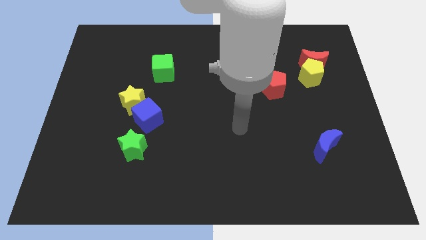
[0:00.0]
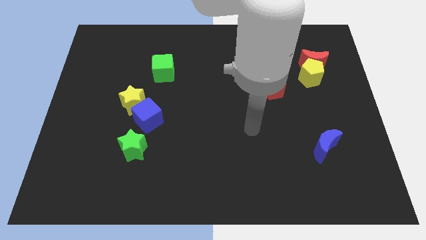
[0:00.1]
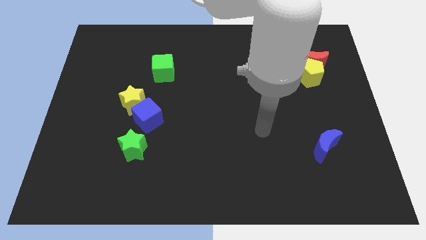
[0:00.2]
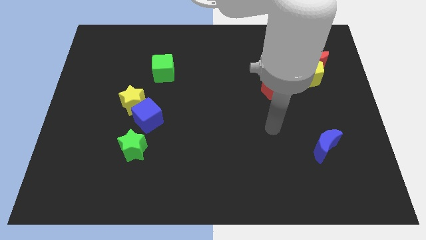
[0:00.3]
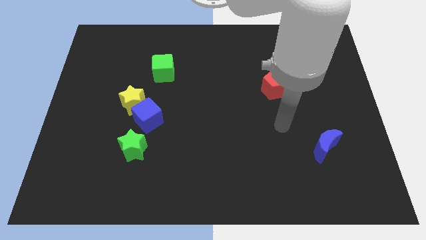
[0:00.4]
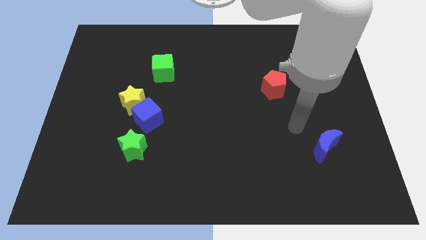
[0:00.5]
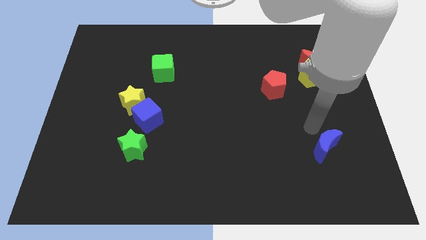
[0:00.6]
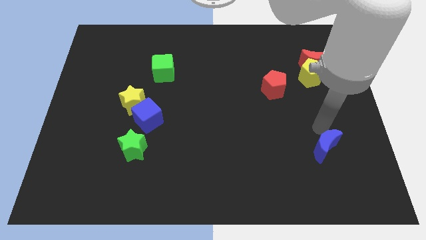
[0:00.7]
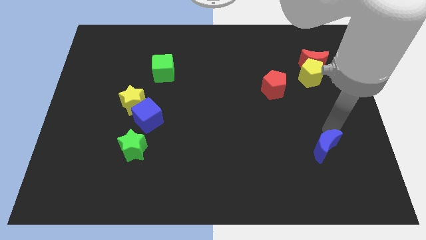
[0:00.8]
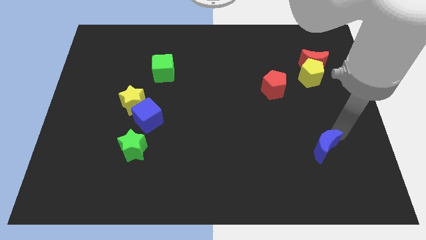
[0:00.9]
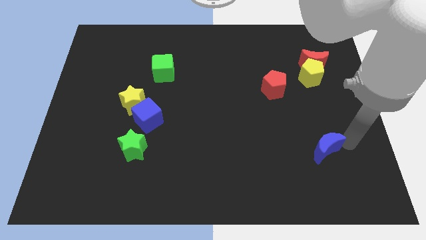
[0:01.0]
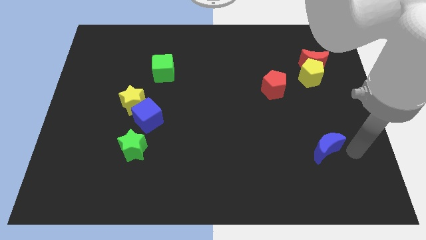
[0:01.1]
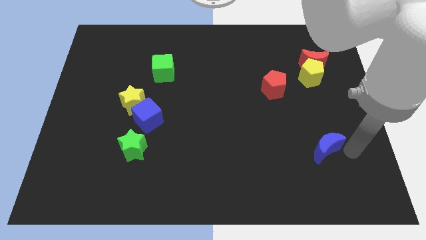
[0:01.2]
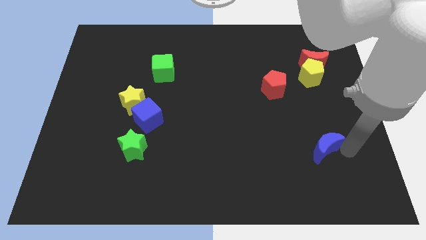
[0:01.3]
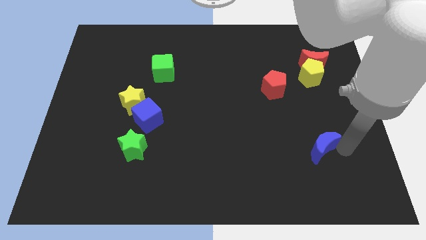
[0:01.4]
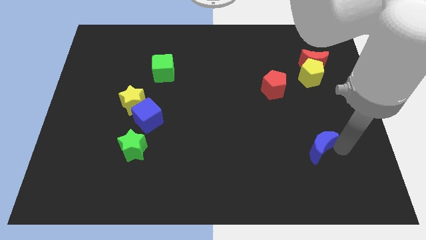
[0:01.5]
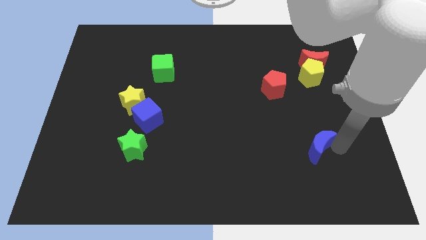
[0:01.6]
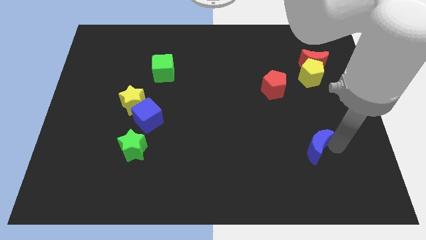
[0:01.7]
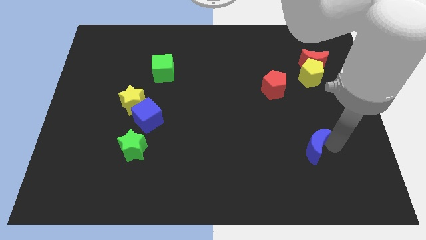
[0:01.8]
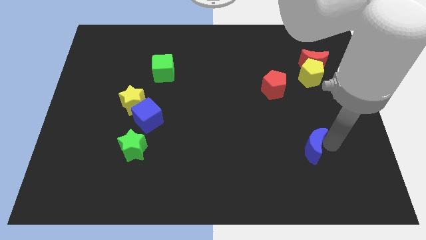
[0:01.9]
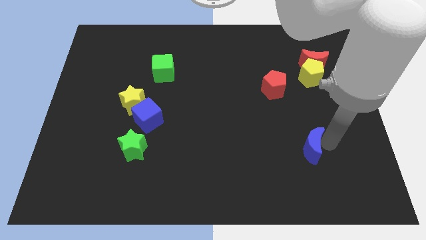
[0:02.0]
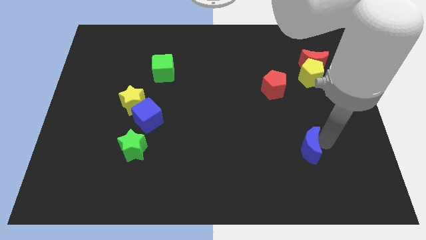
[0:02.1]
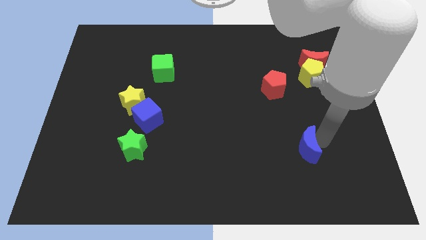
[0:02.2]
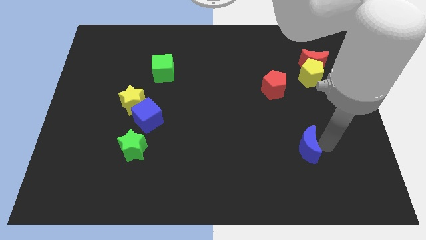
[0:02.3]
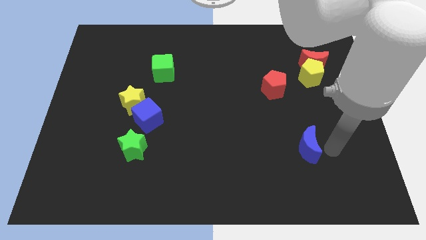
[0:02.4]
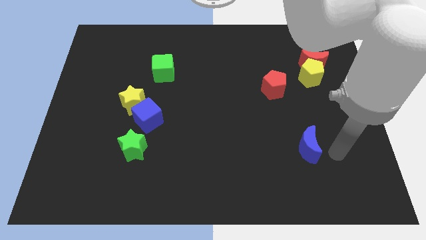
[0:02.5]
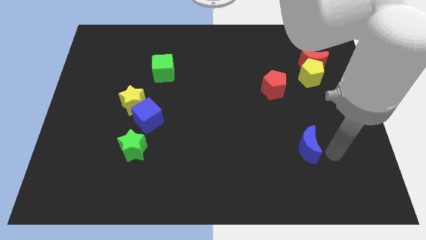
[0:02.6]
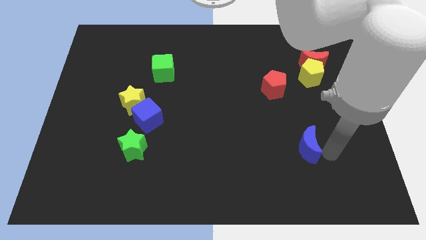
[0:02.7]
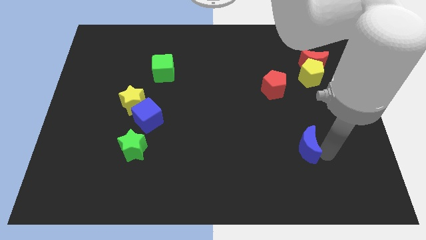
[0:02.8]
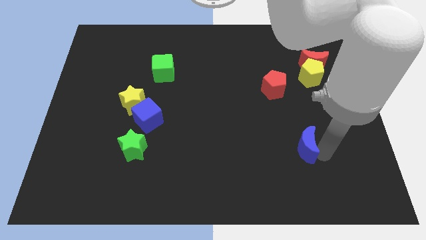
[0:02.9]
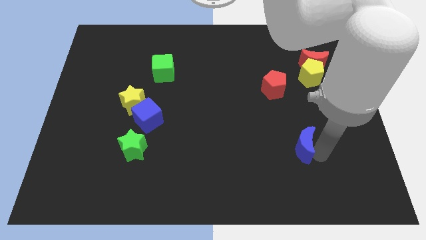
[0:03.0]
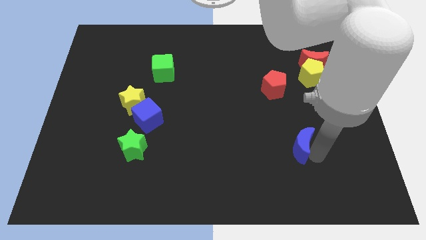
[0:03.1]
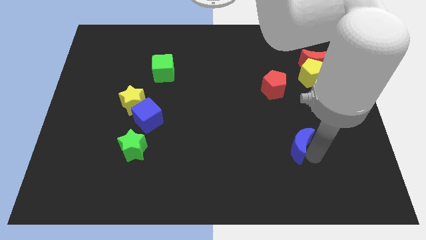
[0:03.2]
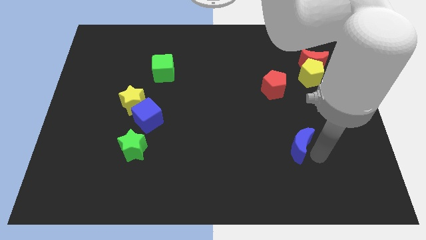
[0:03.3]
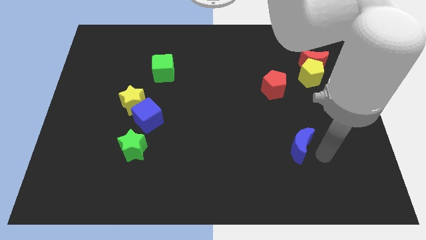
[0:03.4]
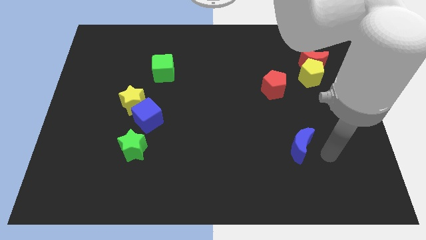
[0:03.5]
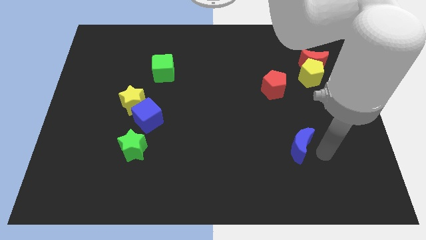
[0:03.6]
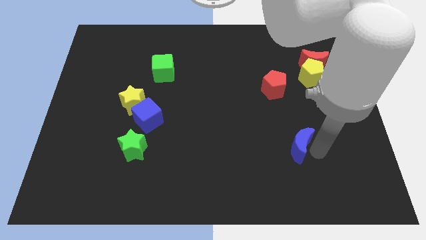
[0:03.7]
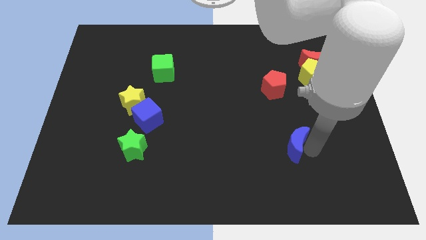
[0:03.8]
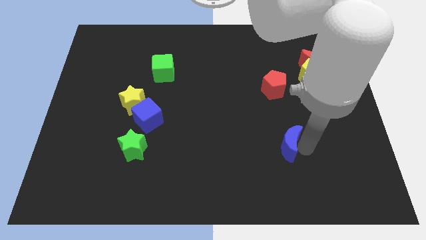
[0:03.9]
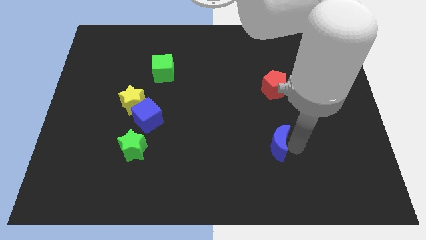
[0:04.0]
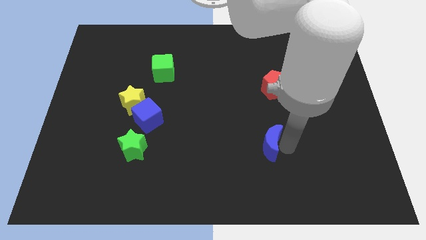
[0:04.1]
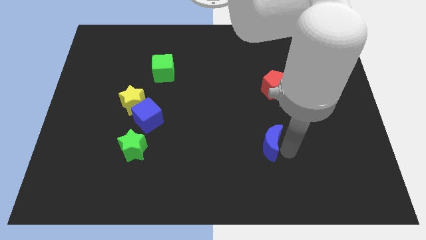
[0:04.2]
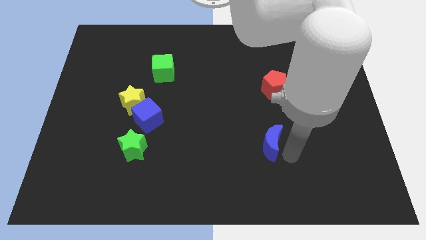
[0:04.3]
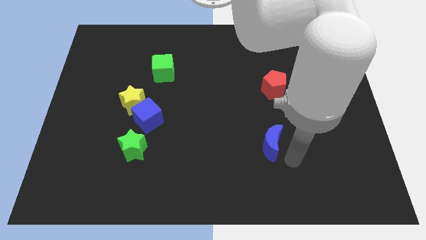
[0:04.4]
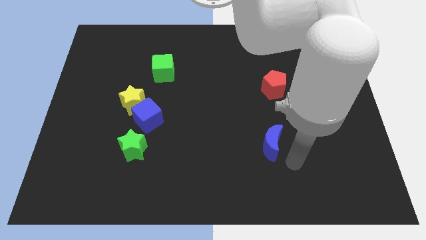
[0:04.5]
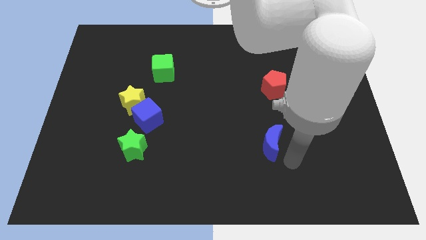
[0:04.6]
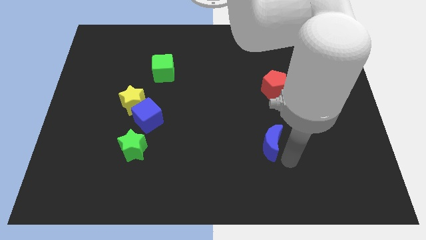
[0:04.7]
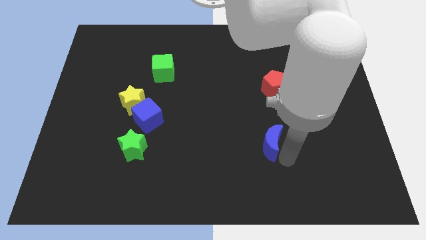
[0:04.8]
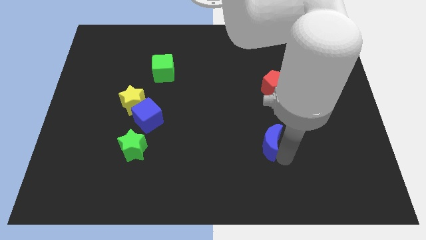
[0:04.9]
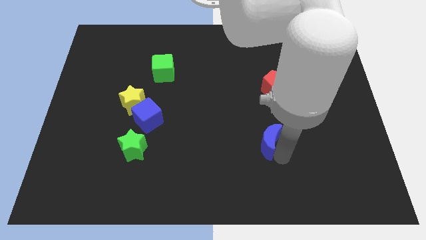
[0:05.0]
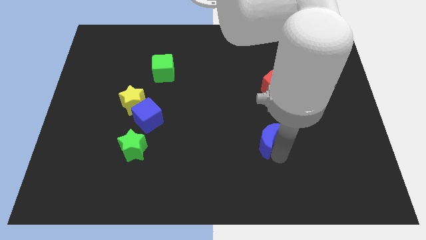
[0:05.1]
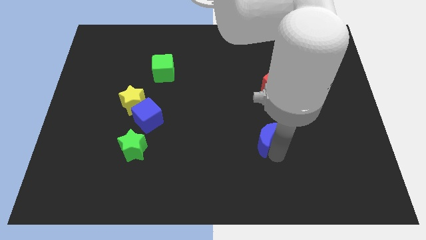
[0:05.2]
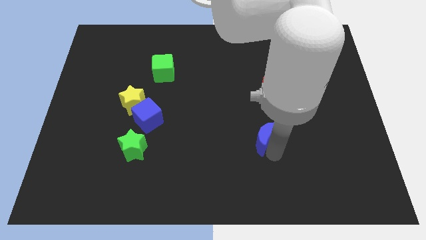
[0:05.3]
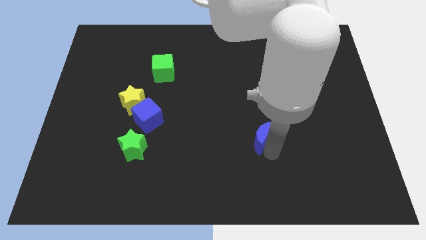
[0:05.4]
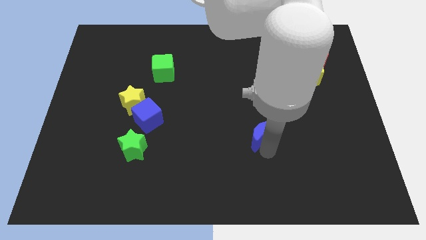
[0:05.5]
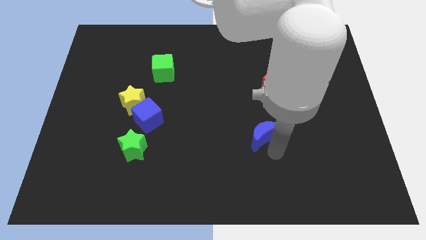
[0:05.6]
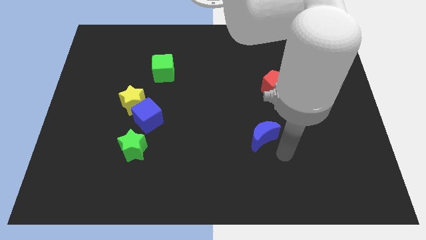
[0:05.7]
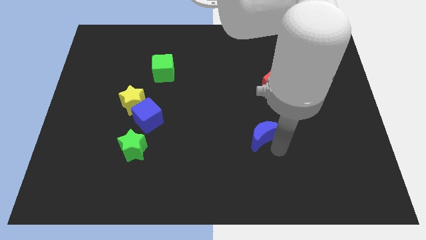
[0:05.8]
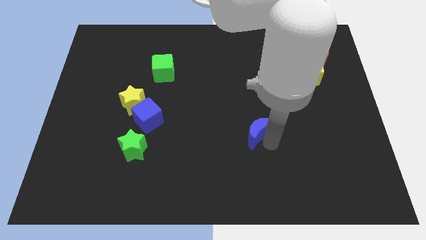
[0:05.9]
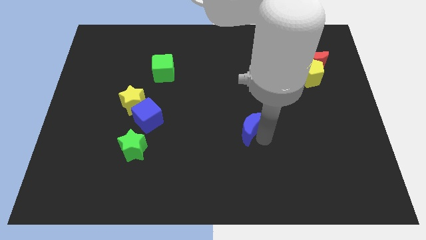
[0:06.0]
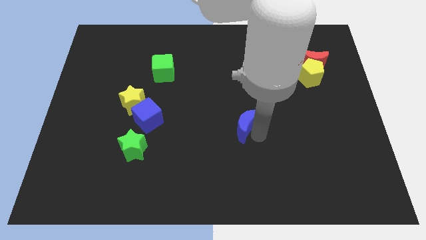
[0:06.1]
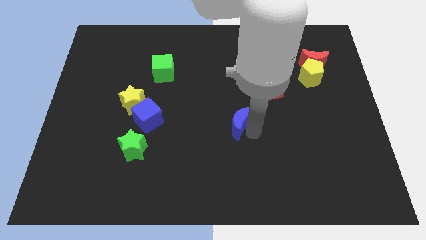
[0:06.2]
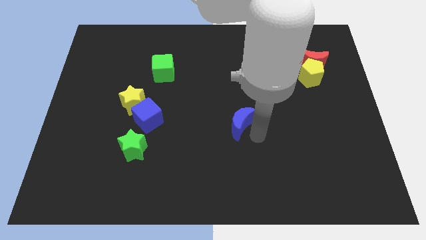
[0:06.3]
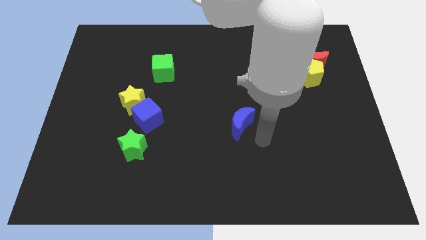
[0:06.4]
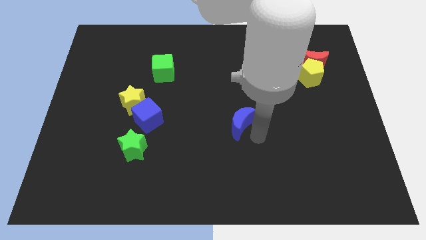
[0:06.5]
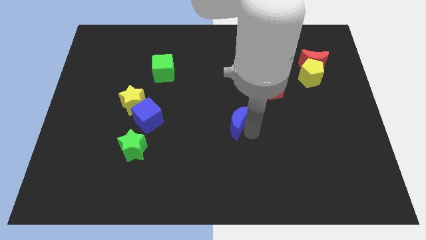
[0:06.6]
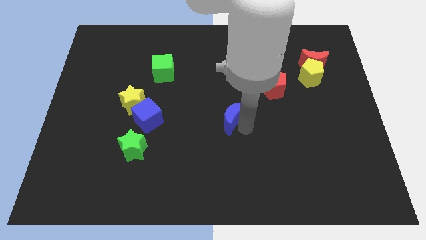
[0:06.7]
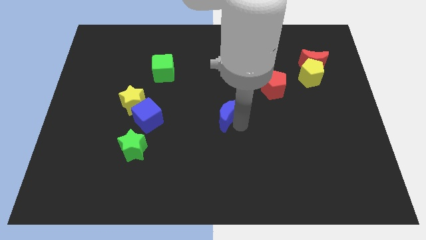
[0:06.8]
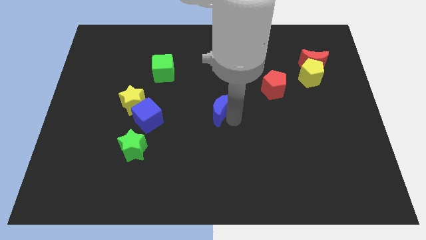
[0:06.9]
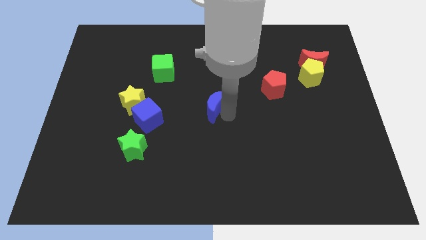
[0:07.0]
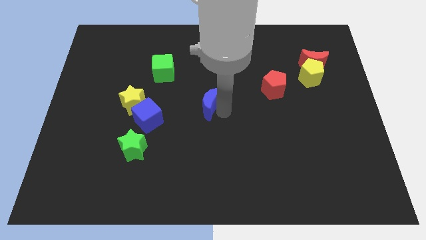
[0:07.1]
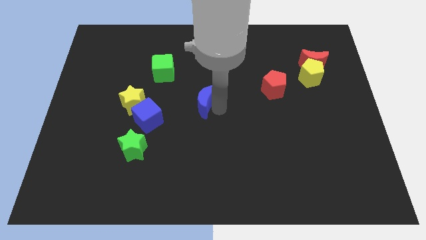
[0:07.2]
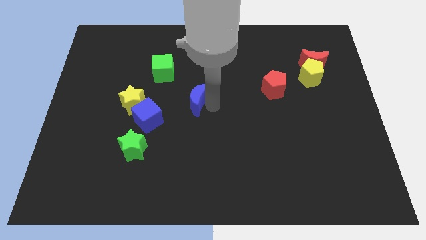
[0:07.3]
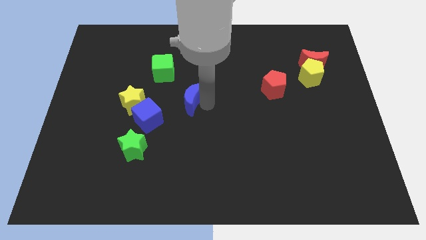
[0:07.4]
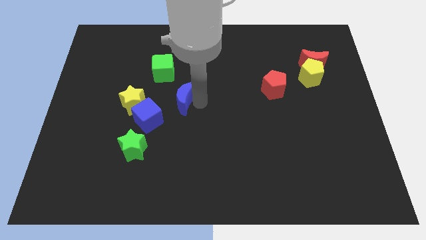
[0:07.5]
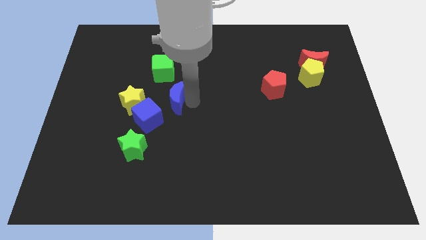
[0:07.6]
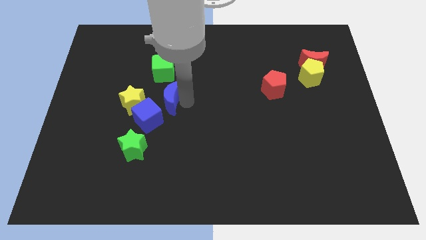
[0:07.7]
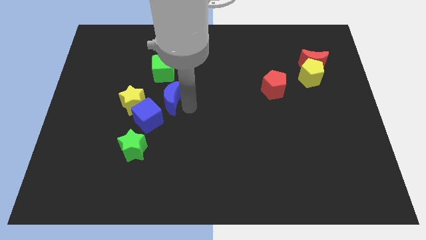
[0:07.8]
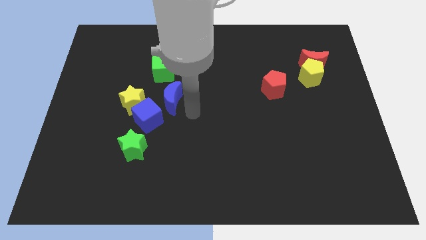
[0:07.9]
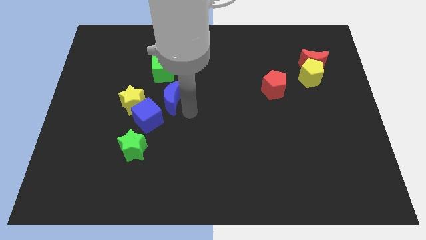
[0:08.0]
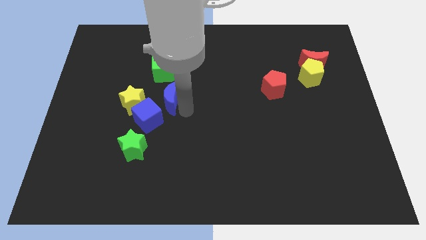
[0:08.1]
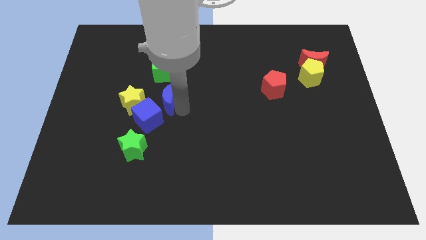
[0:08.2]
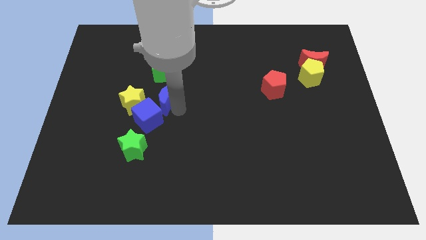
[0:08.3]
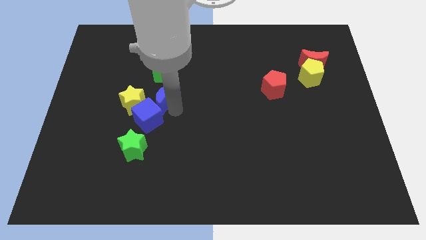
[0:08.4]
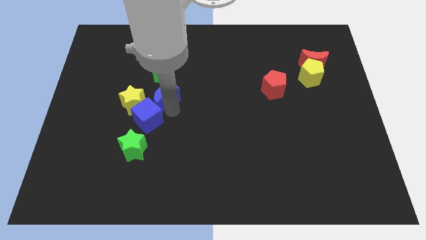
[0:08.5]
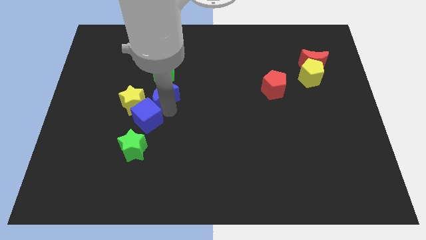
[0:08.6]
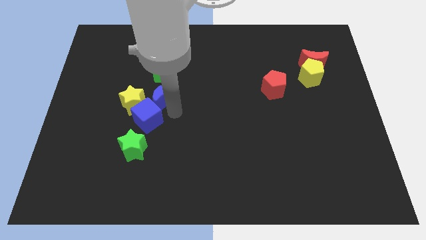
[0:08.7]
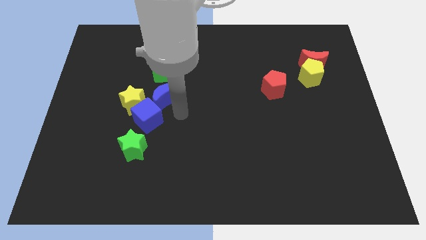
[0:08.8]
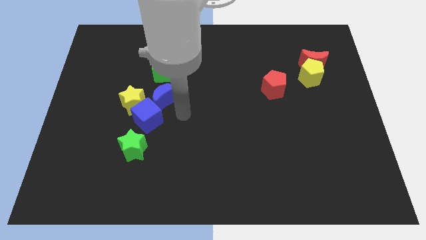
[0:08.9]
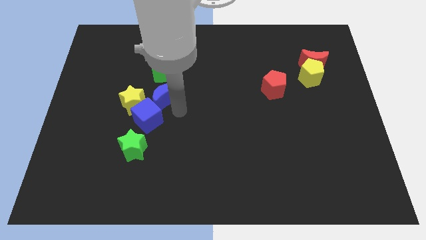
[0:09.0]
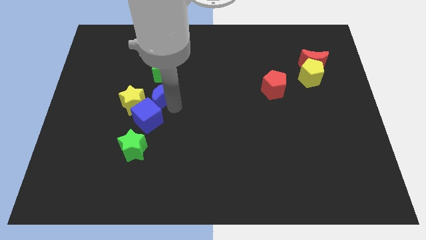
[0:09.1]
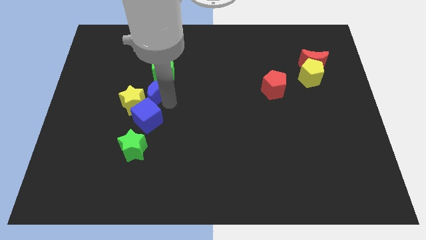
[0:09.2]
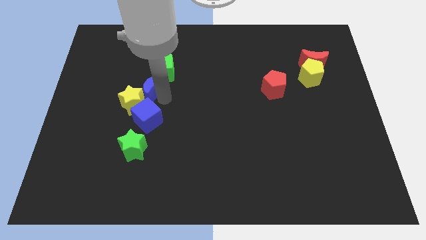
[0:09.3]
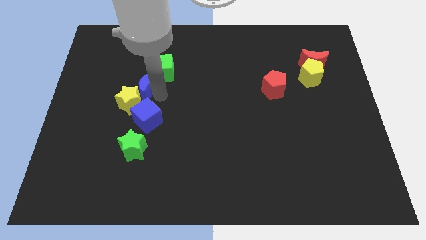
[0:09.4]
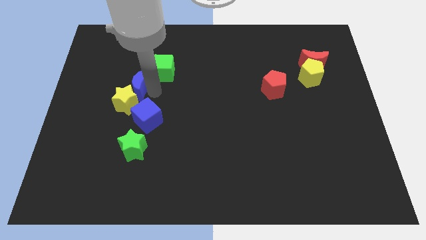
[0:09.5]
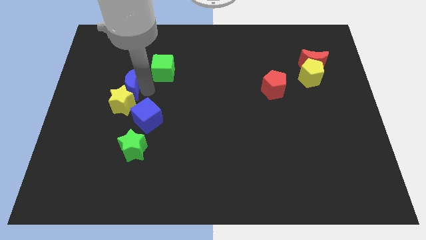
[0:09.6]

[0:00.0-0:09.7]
push the blue moon just left of the green cube
